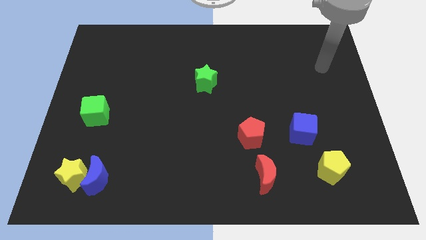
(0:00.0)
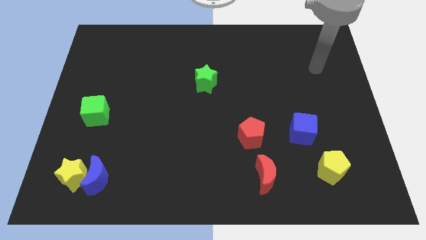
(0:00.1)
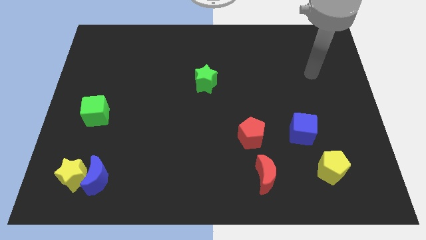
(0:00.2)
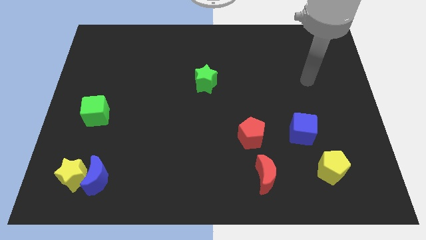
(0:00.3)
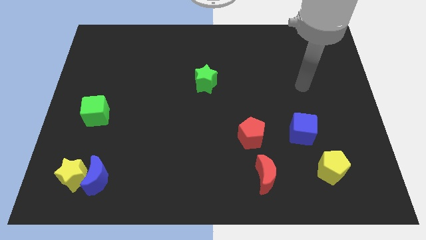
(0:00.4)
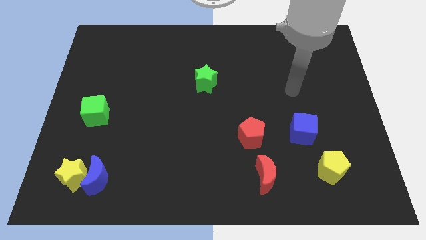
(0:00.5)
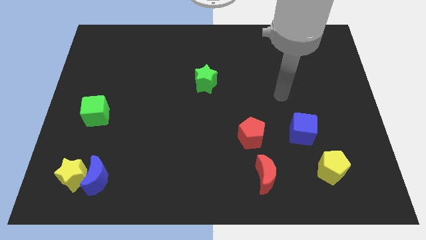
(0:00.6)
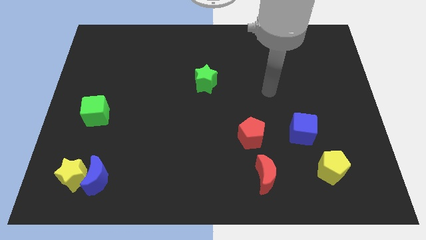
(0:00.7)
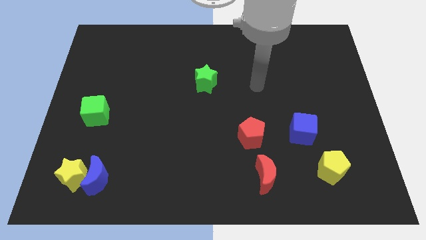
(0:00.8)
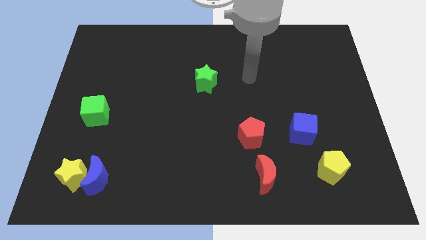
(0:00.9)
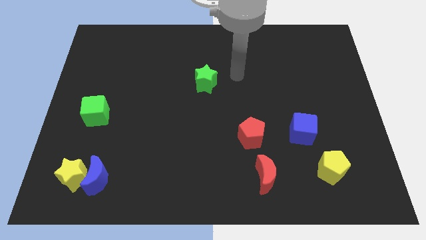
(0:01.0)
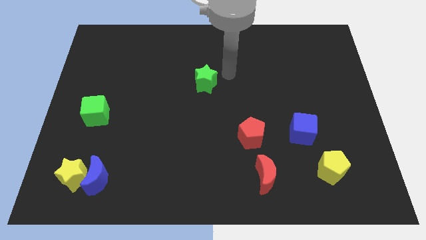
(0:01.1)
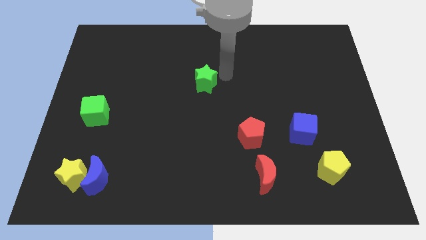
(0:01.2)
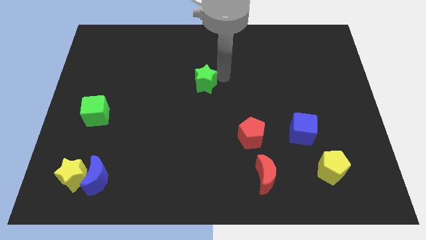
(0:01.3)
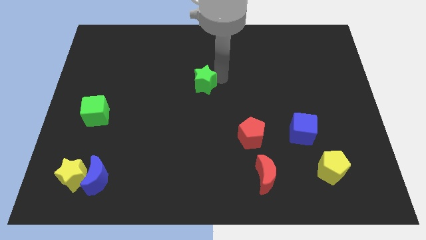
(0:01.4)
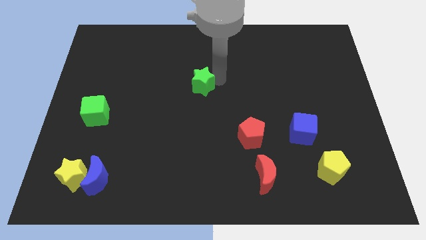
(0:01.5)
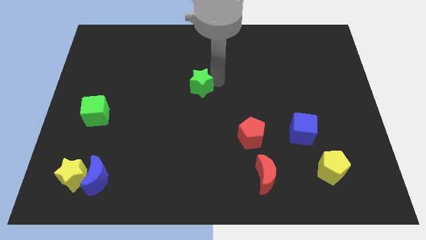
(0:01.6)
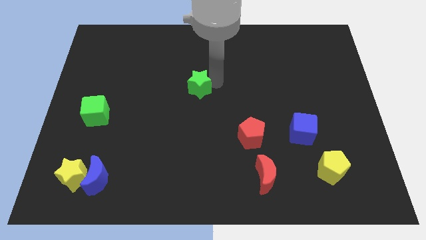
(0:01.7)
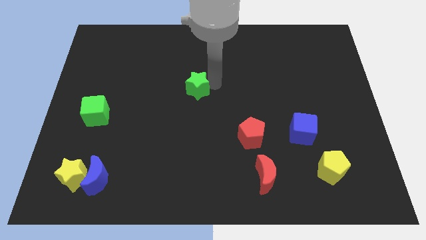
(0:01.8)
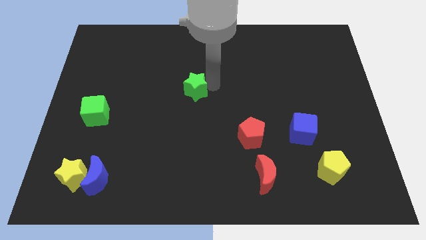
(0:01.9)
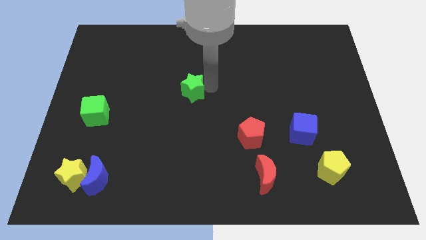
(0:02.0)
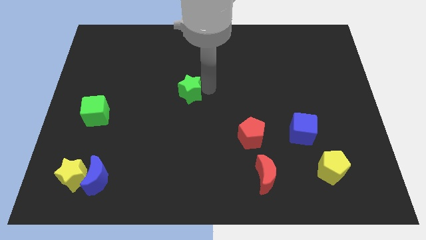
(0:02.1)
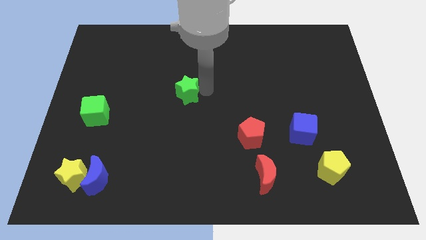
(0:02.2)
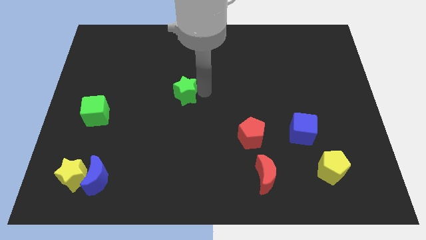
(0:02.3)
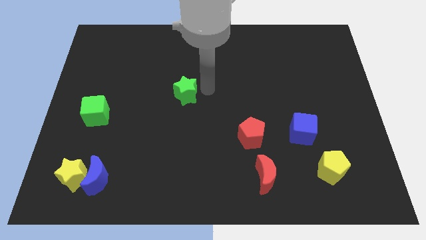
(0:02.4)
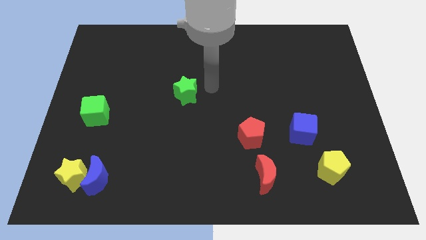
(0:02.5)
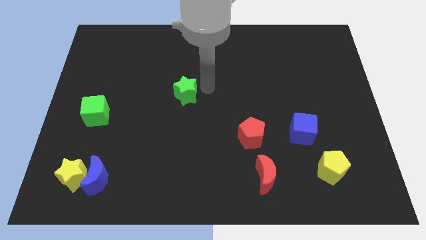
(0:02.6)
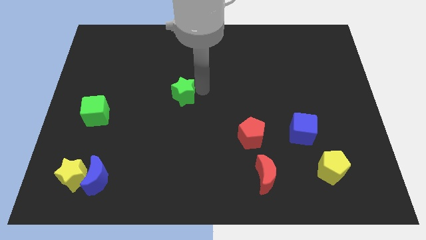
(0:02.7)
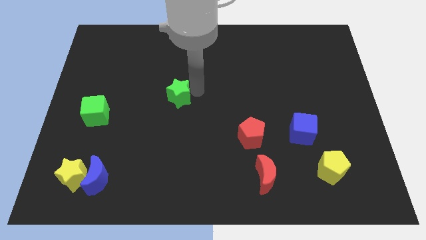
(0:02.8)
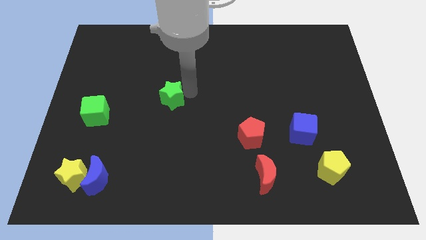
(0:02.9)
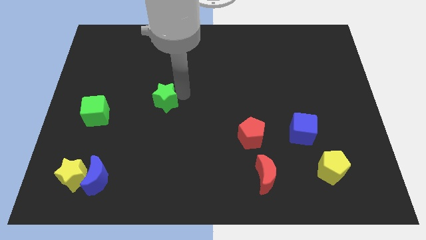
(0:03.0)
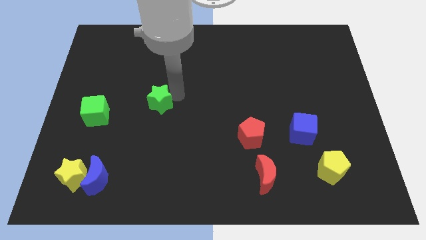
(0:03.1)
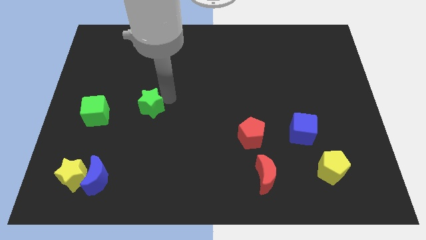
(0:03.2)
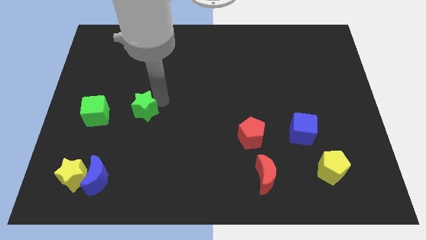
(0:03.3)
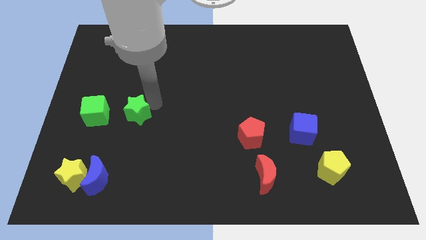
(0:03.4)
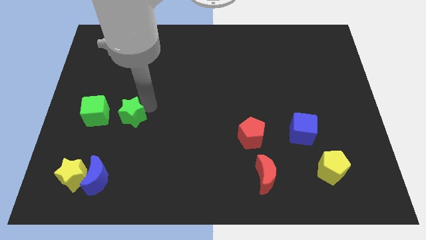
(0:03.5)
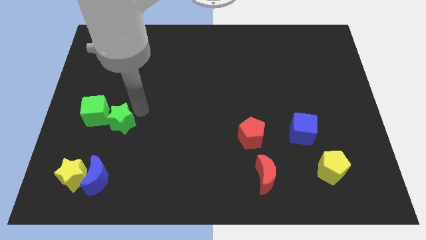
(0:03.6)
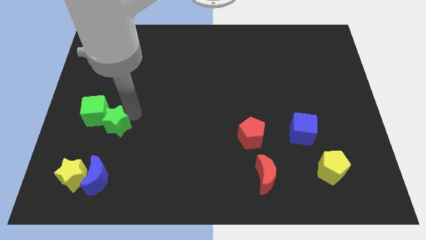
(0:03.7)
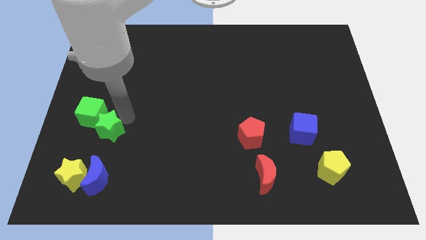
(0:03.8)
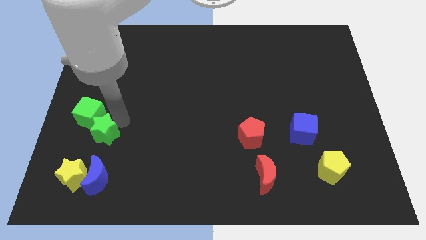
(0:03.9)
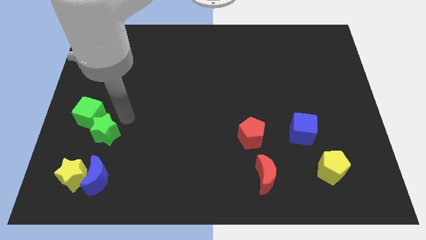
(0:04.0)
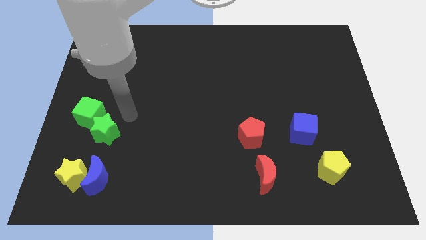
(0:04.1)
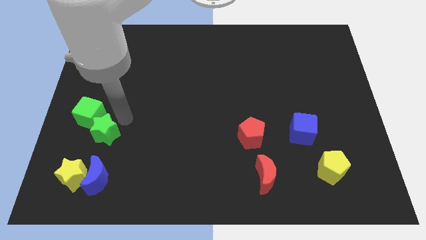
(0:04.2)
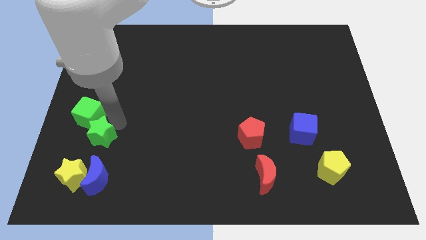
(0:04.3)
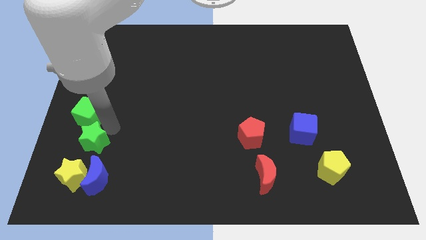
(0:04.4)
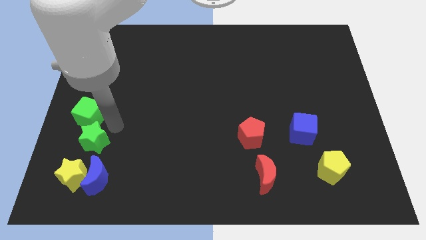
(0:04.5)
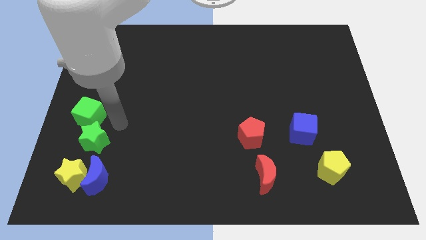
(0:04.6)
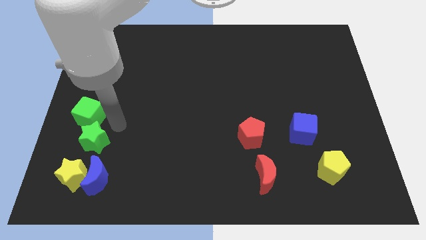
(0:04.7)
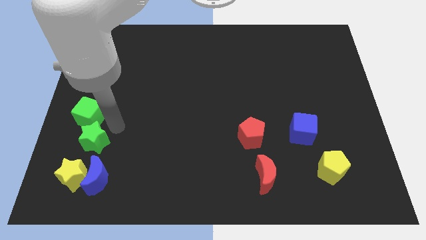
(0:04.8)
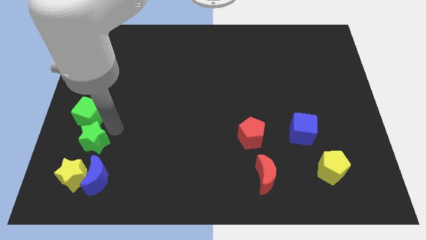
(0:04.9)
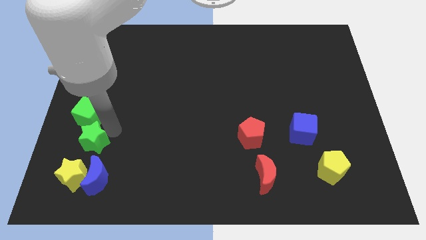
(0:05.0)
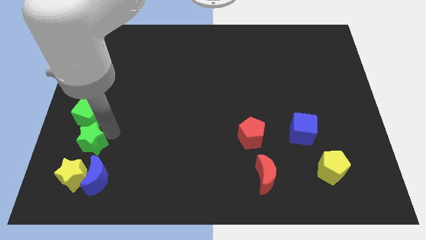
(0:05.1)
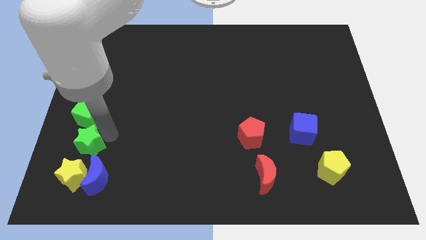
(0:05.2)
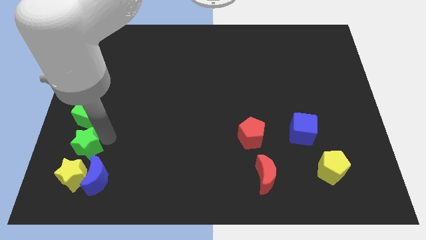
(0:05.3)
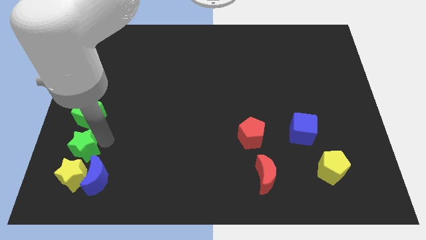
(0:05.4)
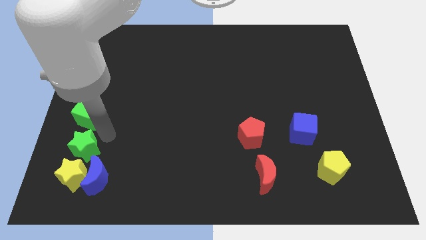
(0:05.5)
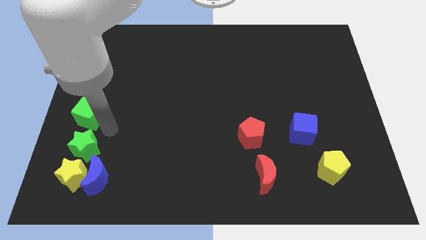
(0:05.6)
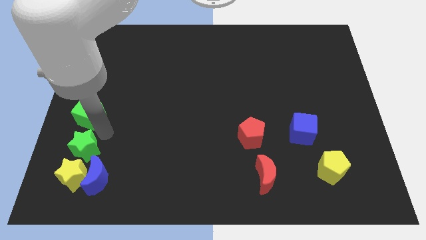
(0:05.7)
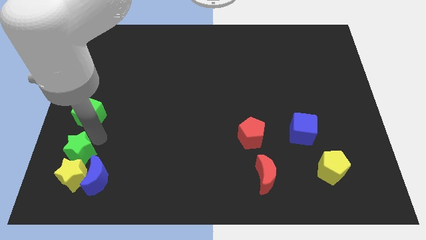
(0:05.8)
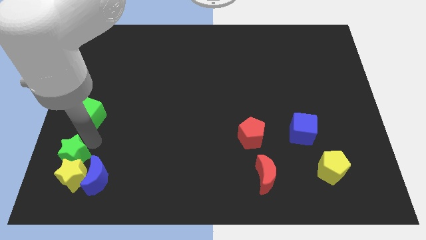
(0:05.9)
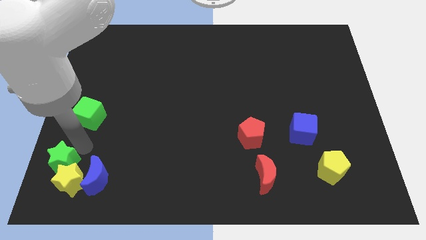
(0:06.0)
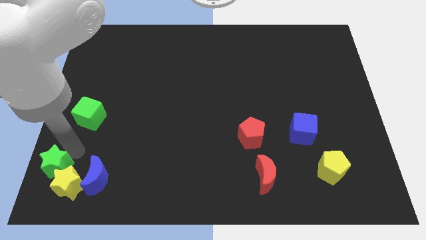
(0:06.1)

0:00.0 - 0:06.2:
put the green star to the lower left corner
